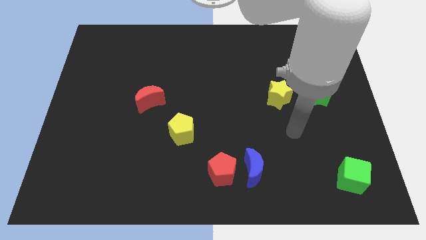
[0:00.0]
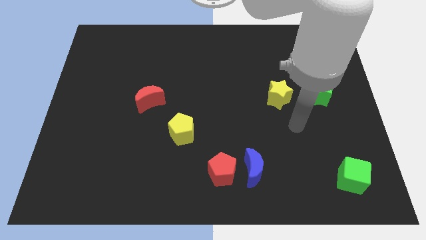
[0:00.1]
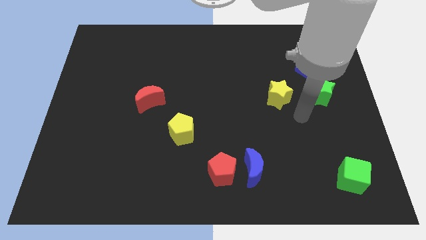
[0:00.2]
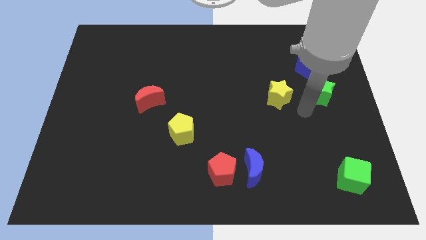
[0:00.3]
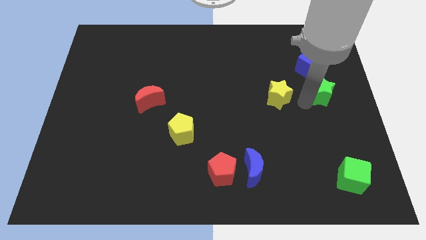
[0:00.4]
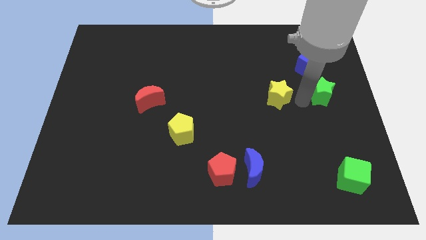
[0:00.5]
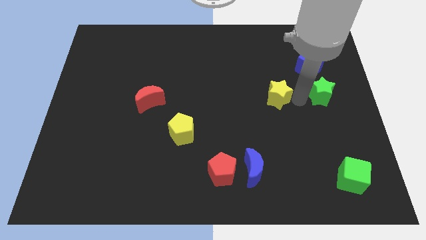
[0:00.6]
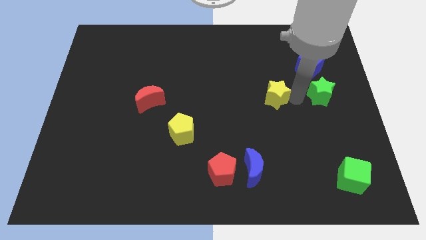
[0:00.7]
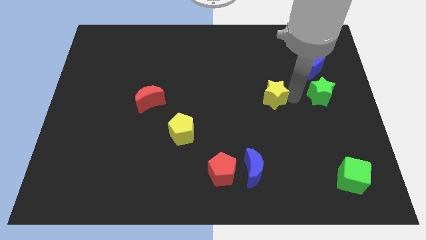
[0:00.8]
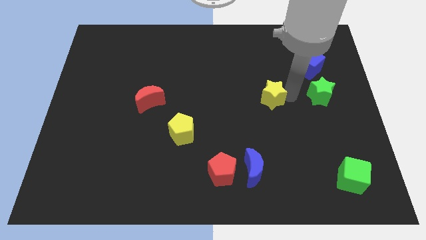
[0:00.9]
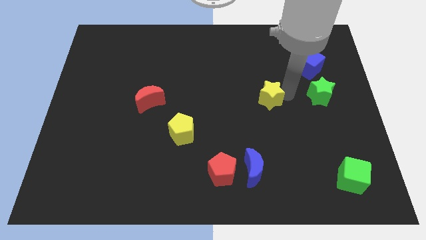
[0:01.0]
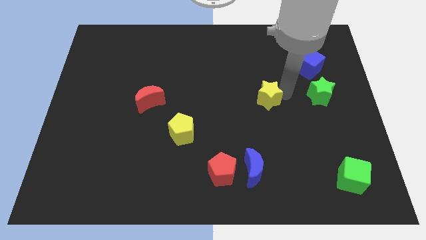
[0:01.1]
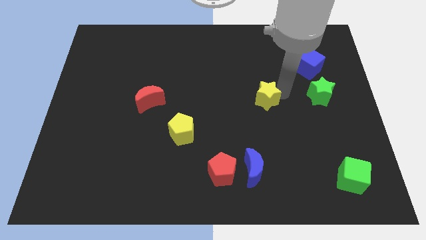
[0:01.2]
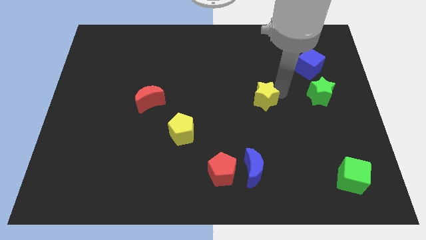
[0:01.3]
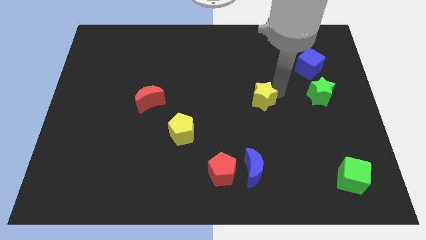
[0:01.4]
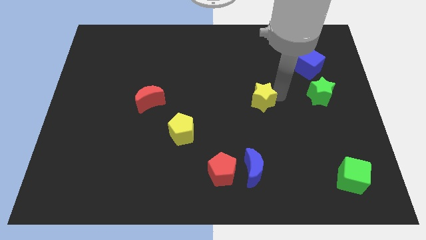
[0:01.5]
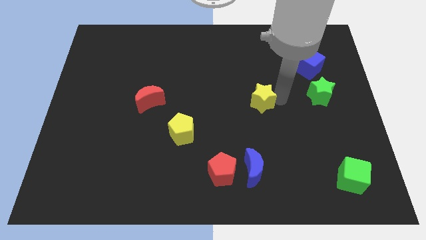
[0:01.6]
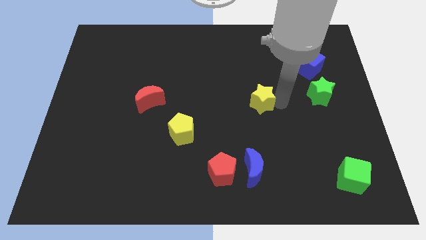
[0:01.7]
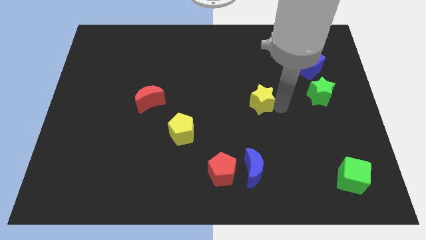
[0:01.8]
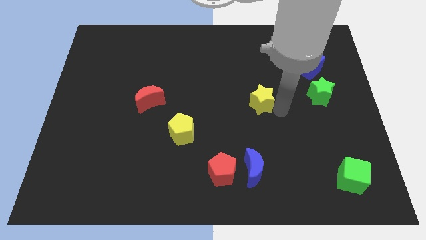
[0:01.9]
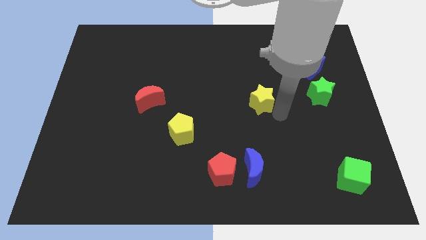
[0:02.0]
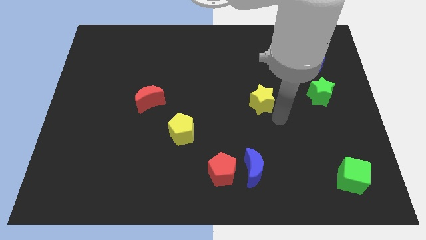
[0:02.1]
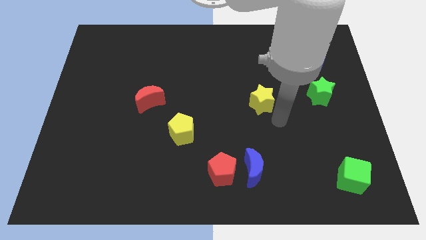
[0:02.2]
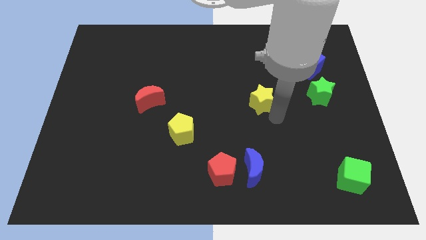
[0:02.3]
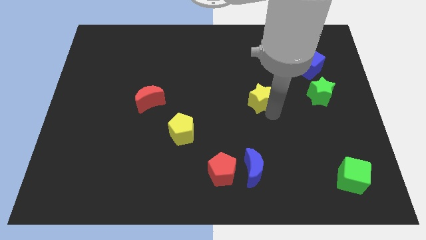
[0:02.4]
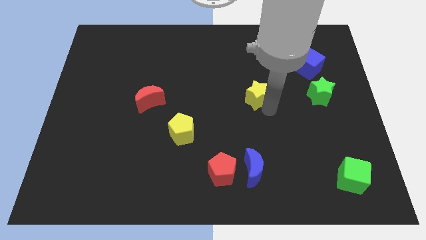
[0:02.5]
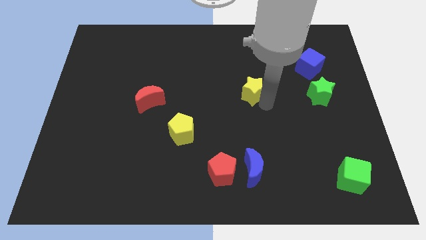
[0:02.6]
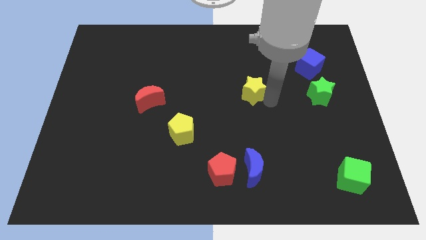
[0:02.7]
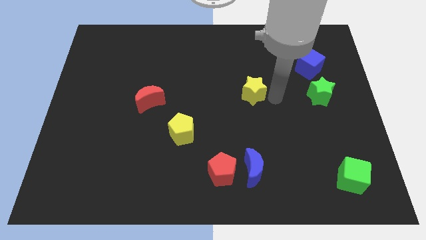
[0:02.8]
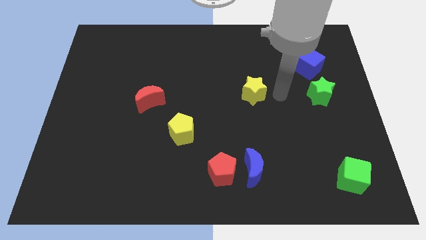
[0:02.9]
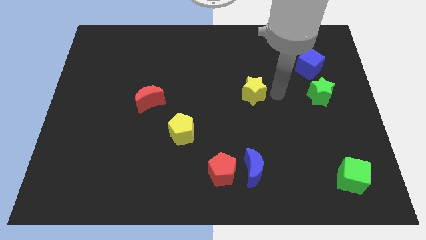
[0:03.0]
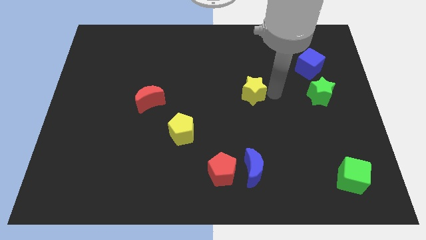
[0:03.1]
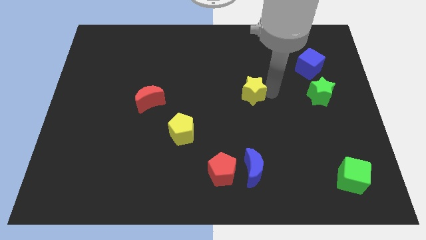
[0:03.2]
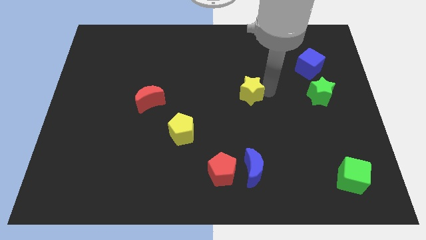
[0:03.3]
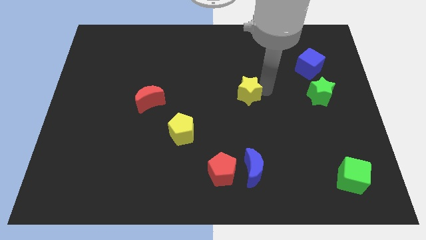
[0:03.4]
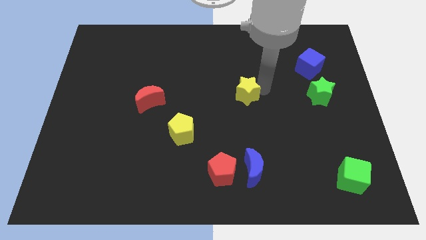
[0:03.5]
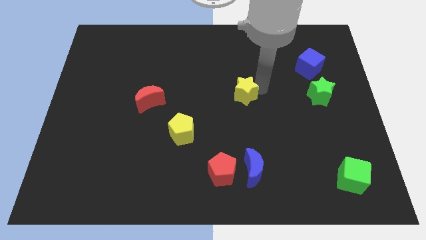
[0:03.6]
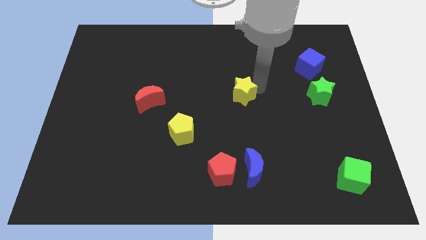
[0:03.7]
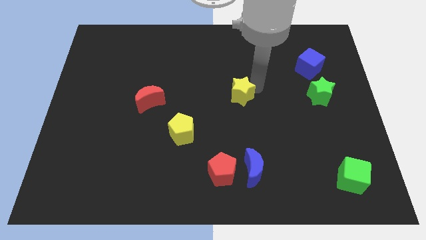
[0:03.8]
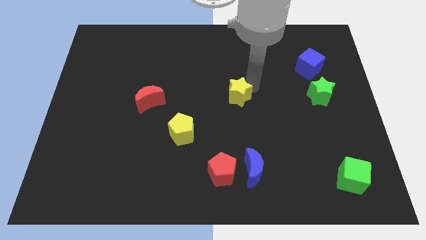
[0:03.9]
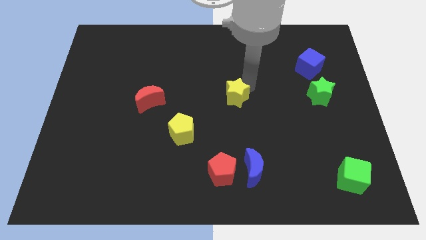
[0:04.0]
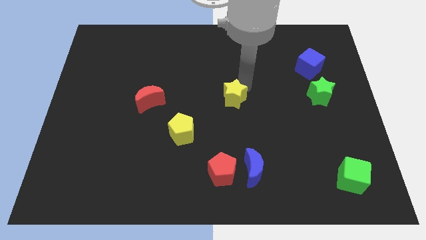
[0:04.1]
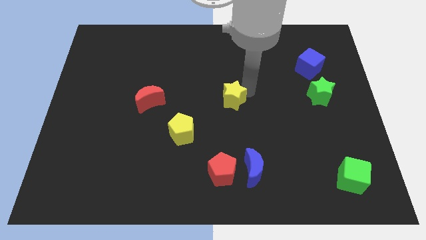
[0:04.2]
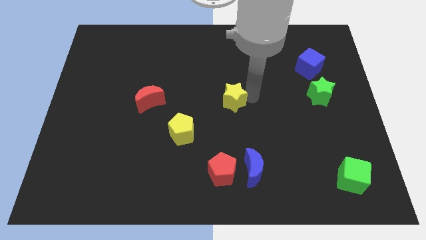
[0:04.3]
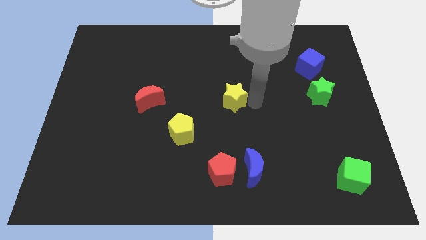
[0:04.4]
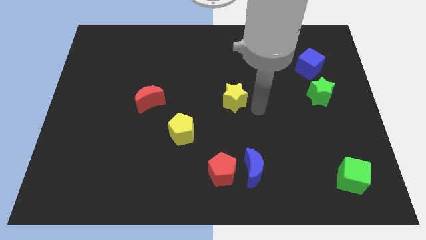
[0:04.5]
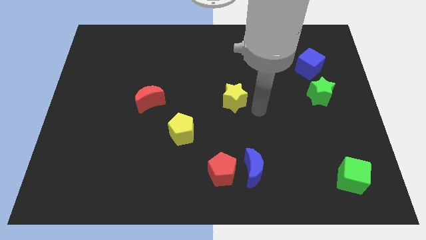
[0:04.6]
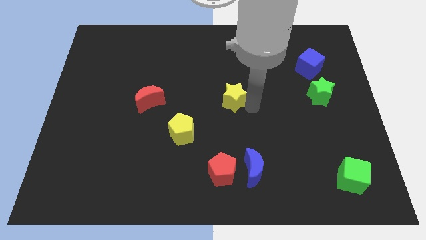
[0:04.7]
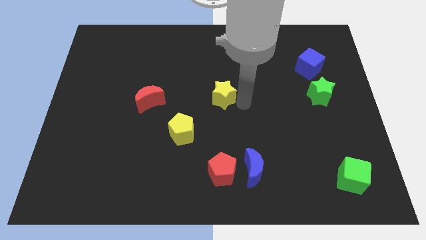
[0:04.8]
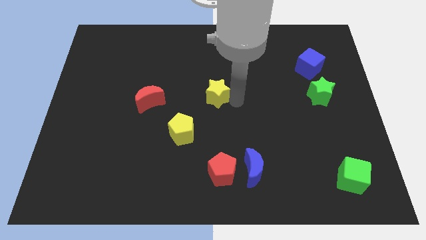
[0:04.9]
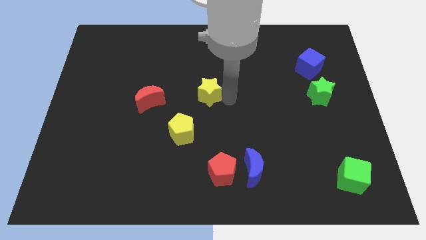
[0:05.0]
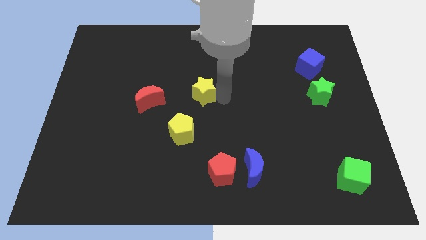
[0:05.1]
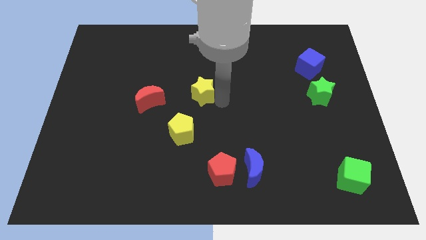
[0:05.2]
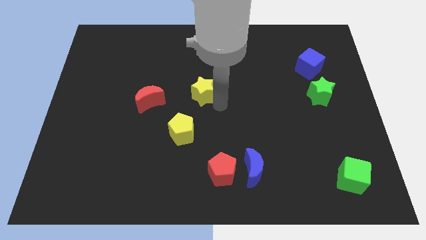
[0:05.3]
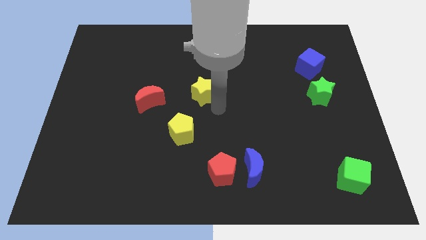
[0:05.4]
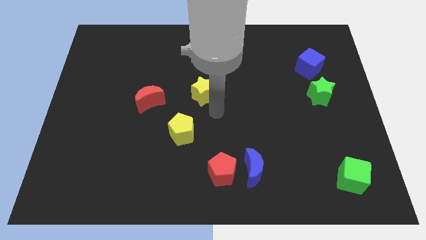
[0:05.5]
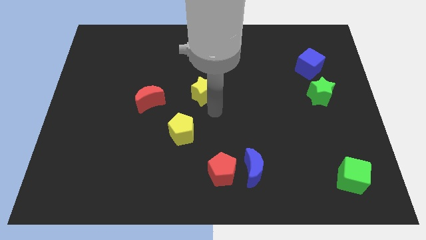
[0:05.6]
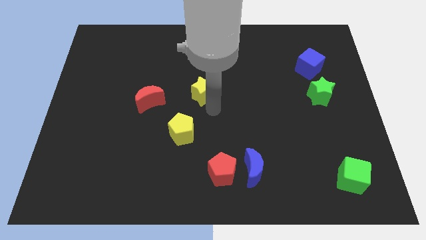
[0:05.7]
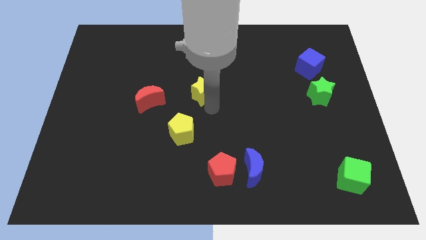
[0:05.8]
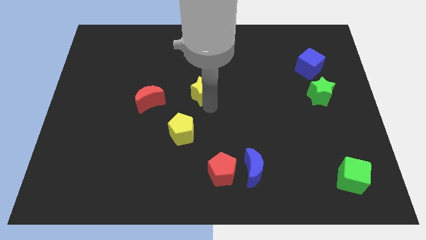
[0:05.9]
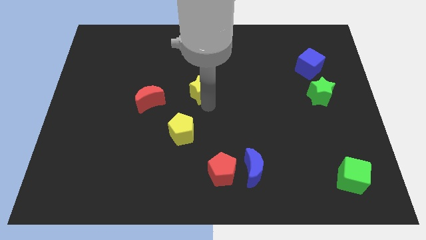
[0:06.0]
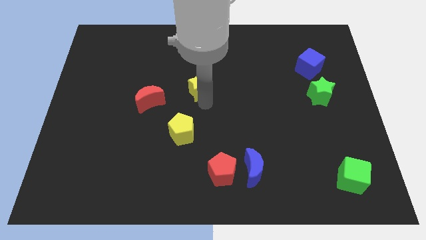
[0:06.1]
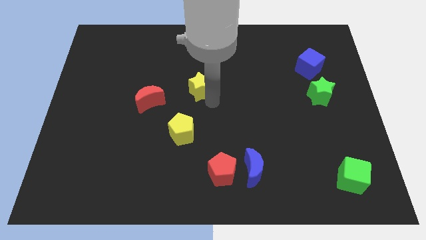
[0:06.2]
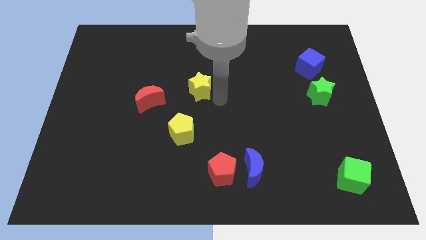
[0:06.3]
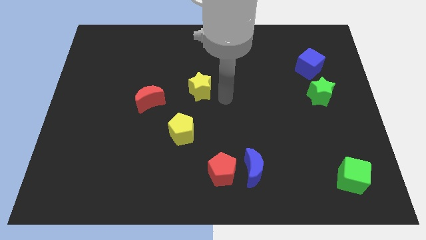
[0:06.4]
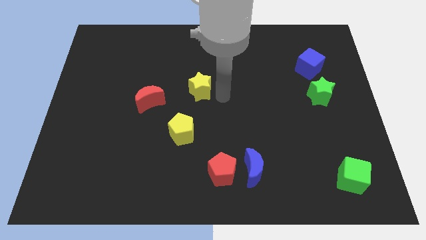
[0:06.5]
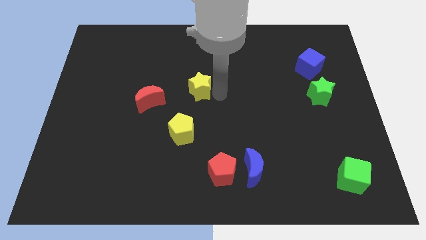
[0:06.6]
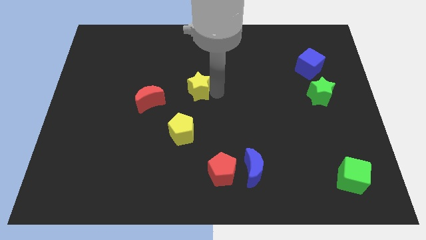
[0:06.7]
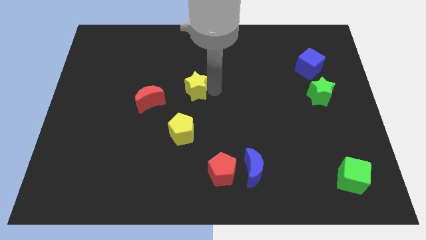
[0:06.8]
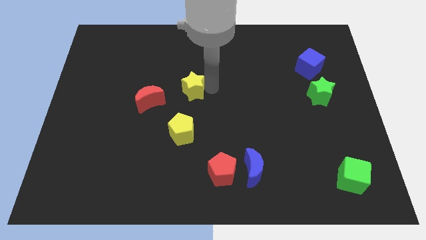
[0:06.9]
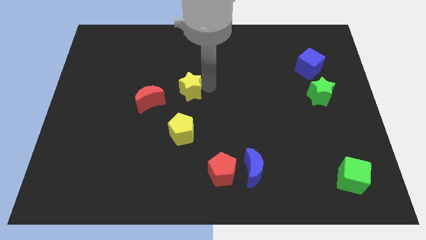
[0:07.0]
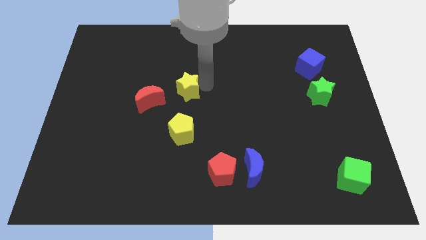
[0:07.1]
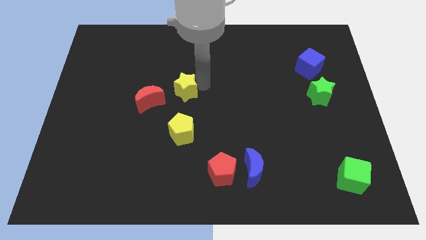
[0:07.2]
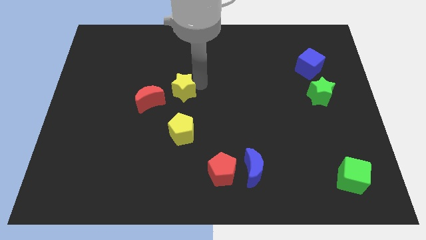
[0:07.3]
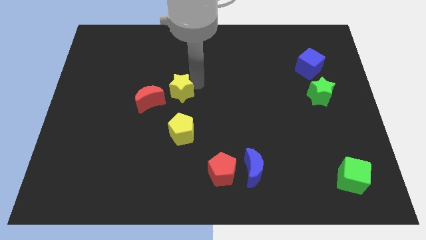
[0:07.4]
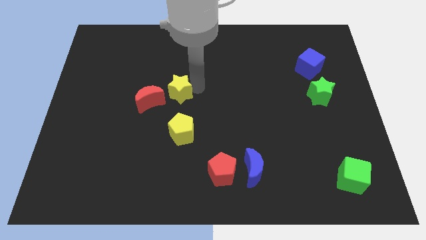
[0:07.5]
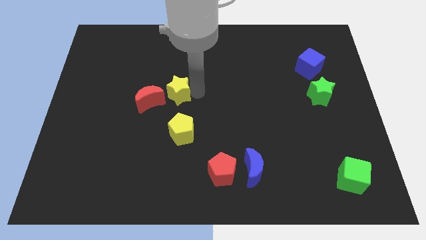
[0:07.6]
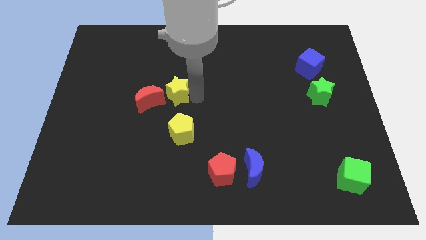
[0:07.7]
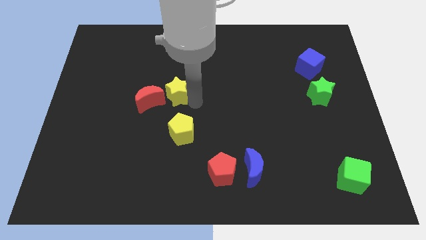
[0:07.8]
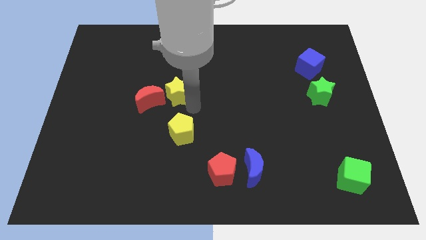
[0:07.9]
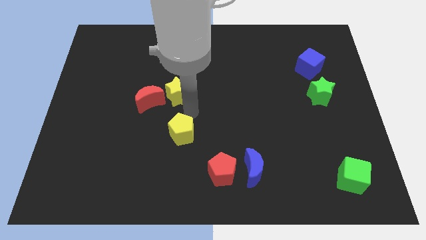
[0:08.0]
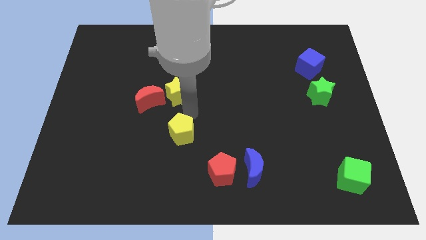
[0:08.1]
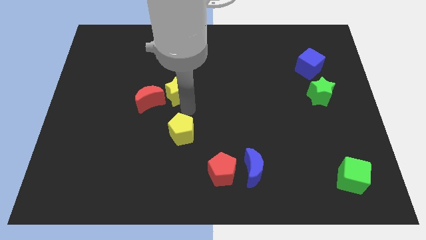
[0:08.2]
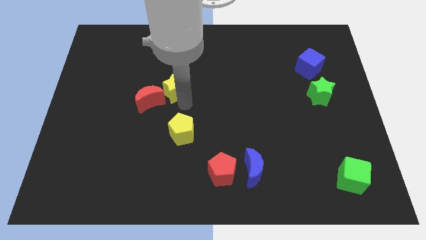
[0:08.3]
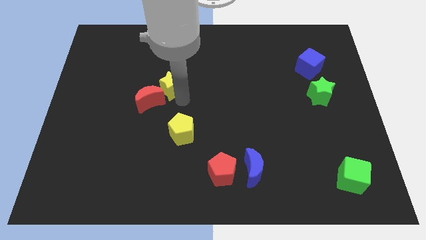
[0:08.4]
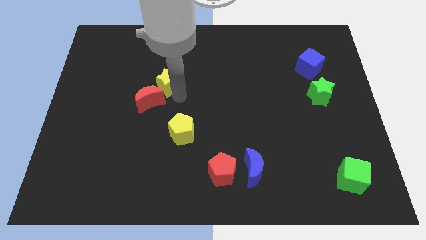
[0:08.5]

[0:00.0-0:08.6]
move the yellow star above the red moon
